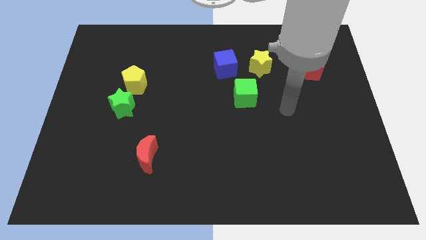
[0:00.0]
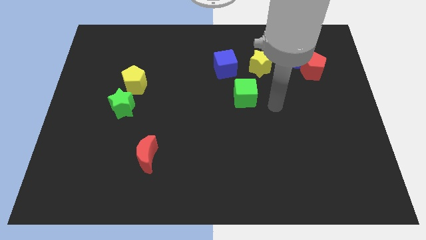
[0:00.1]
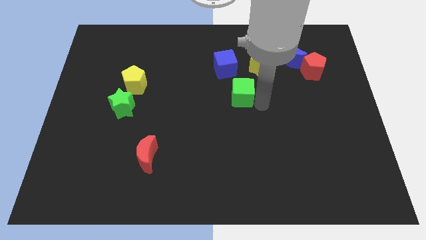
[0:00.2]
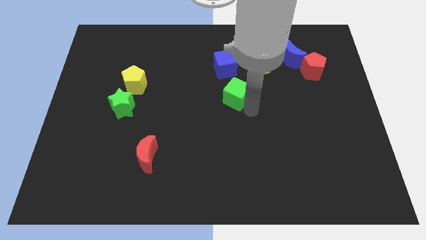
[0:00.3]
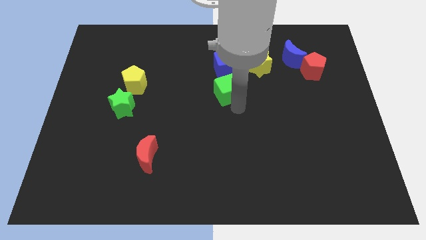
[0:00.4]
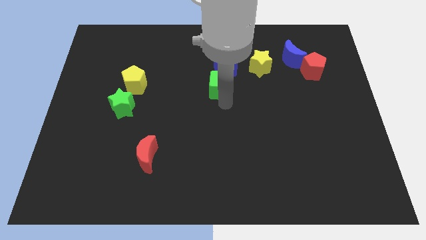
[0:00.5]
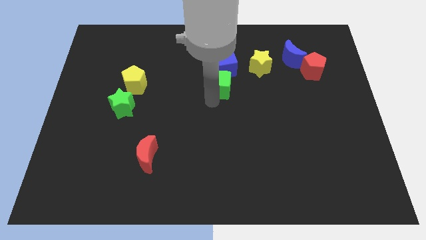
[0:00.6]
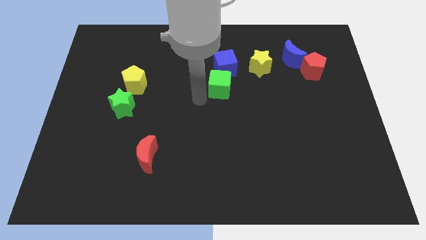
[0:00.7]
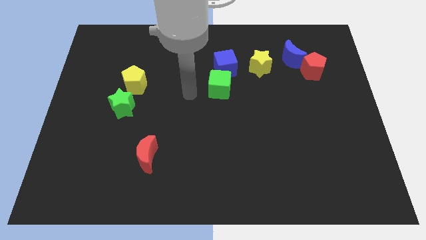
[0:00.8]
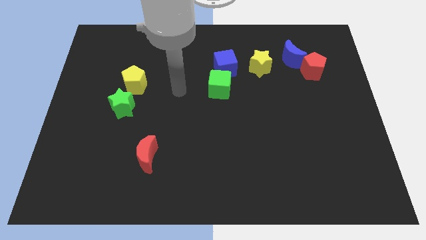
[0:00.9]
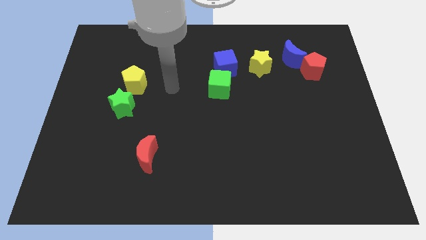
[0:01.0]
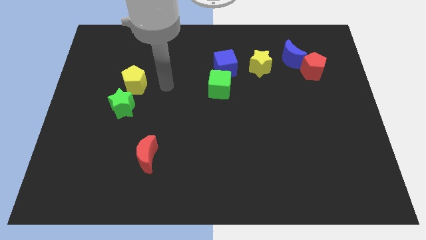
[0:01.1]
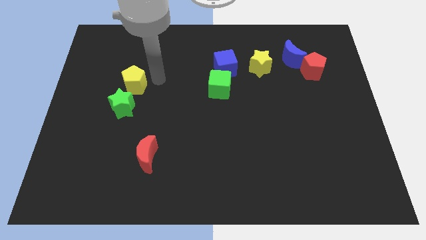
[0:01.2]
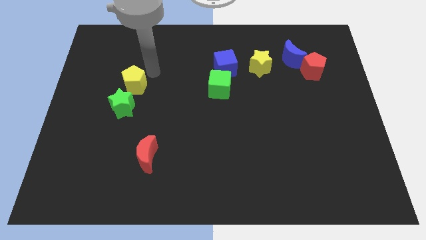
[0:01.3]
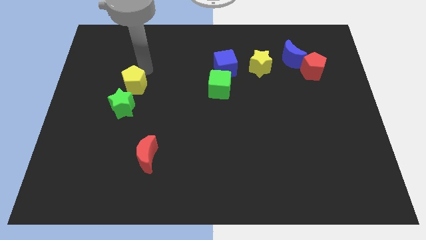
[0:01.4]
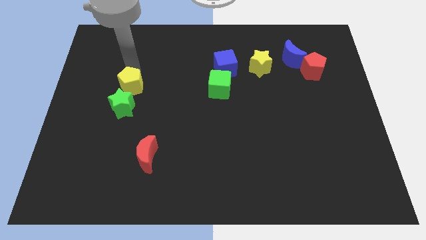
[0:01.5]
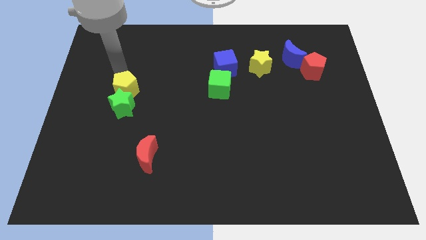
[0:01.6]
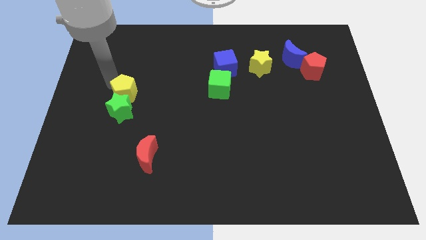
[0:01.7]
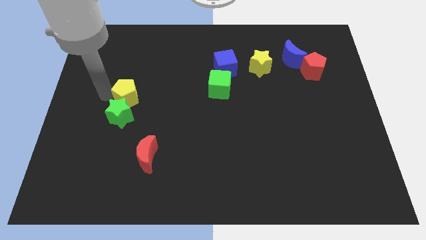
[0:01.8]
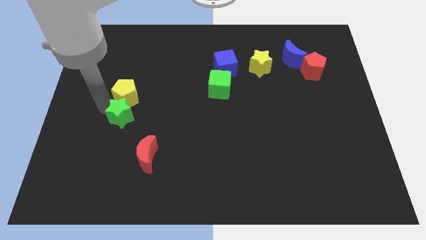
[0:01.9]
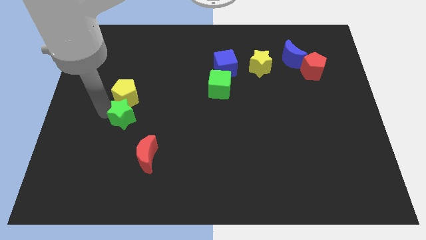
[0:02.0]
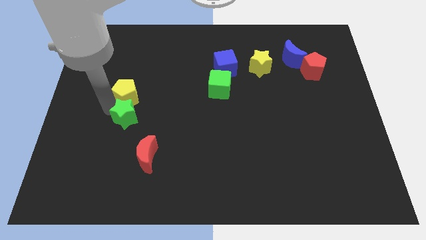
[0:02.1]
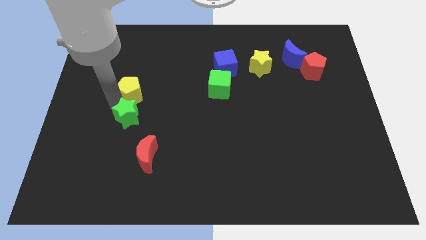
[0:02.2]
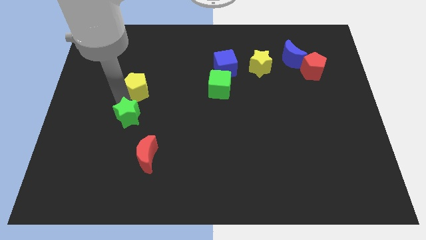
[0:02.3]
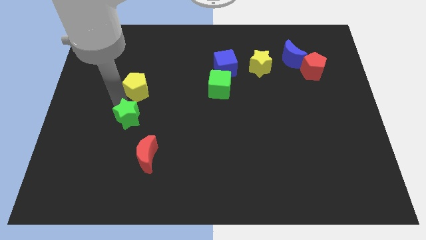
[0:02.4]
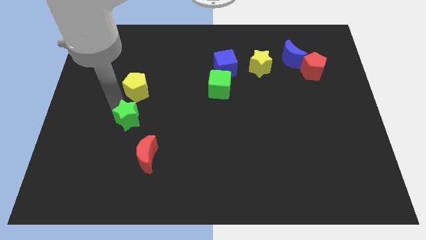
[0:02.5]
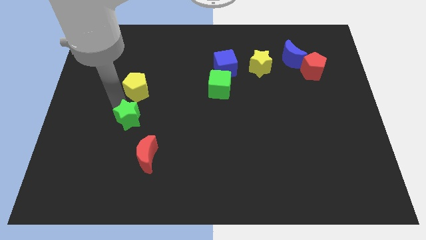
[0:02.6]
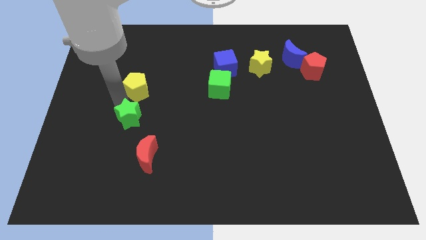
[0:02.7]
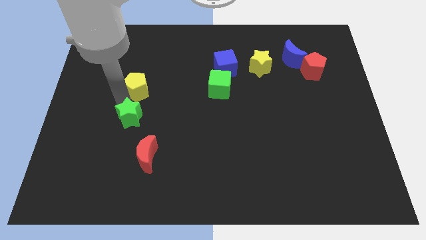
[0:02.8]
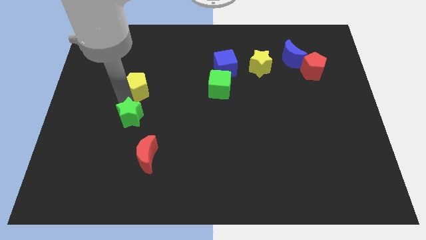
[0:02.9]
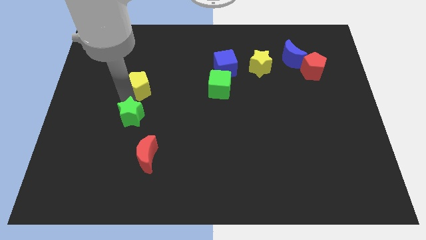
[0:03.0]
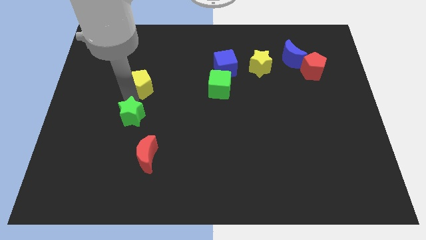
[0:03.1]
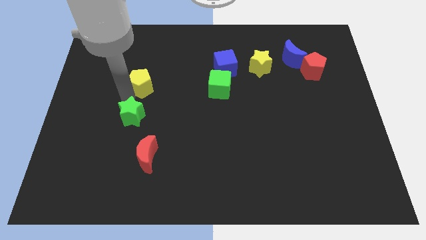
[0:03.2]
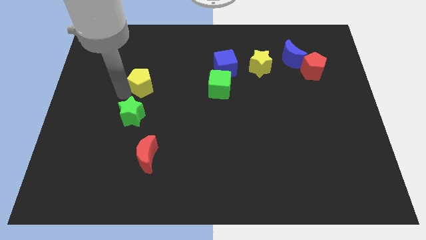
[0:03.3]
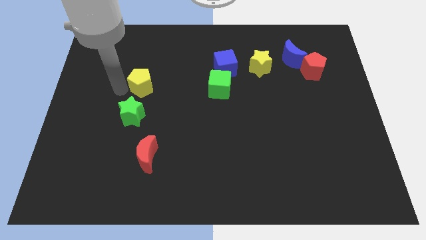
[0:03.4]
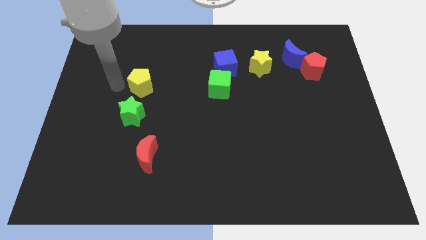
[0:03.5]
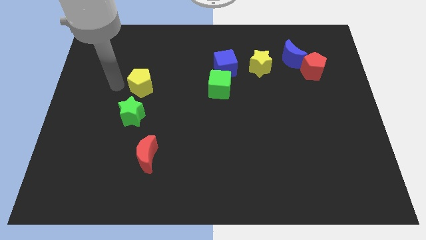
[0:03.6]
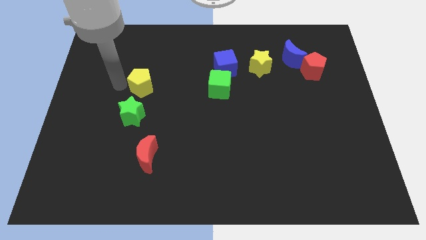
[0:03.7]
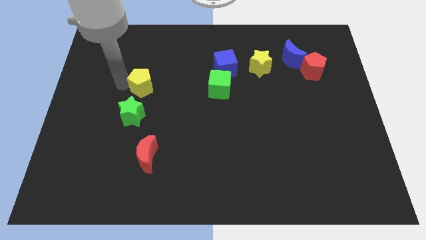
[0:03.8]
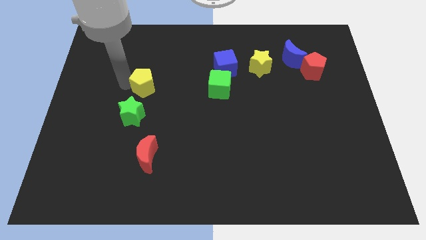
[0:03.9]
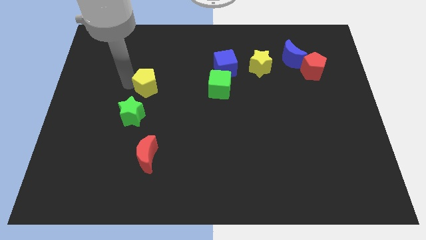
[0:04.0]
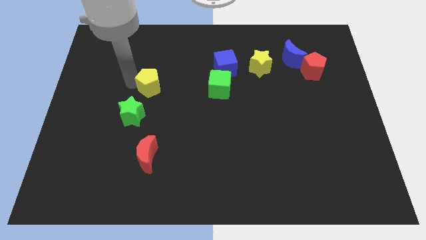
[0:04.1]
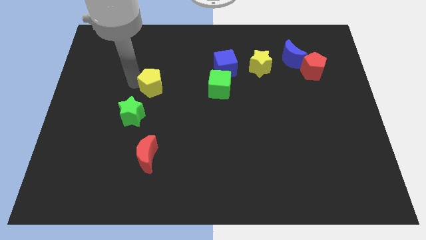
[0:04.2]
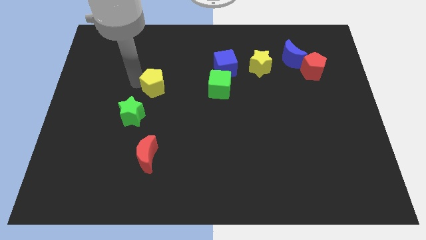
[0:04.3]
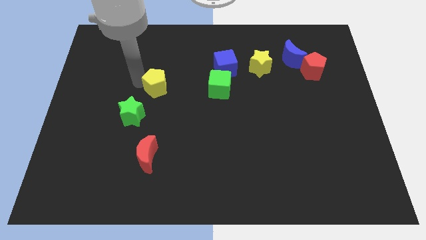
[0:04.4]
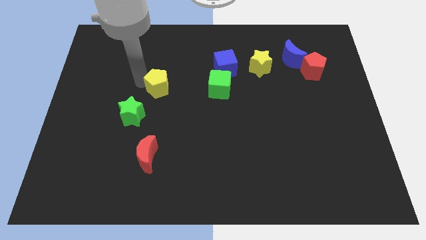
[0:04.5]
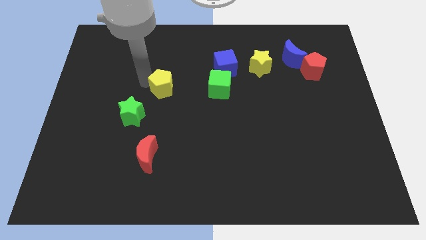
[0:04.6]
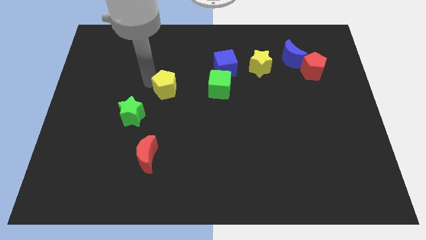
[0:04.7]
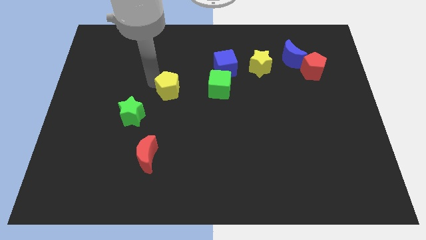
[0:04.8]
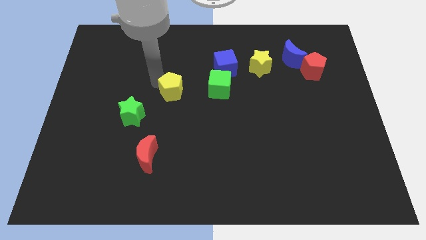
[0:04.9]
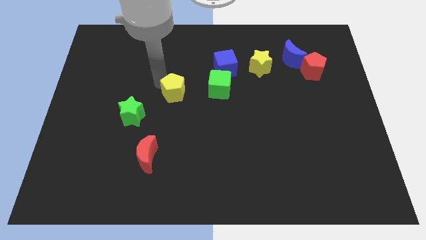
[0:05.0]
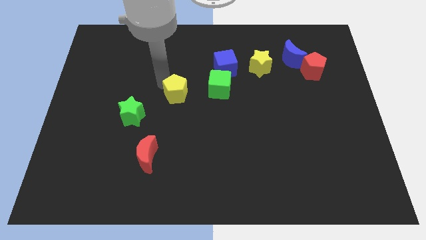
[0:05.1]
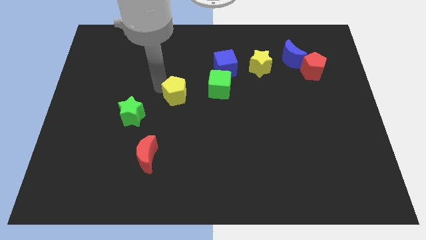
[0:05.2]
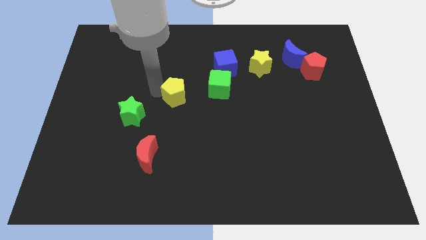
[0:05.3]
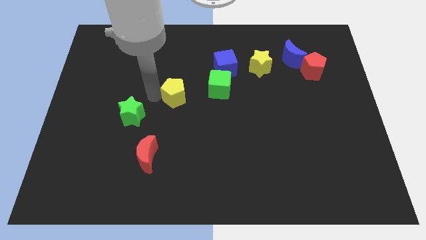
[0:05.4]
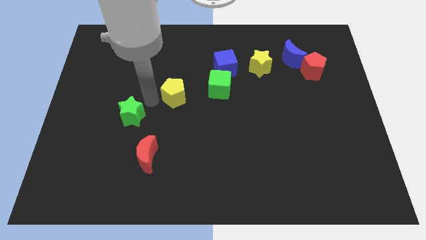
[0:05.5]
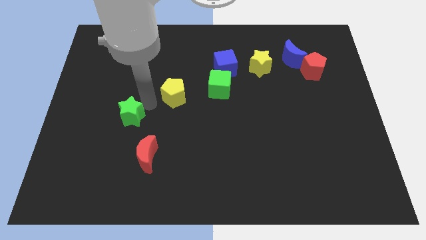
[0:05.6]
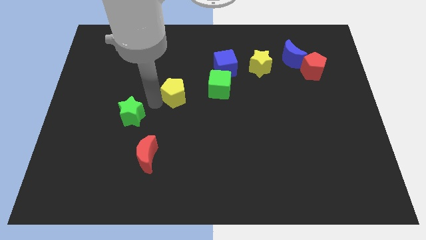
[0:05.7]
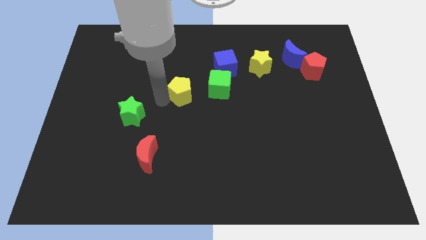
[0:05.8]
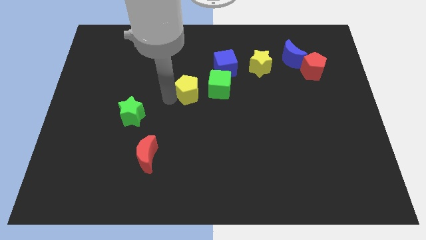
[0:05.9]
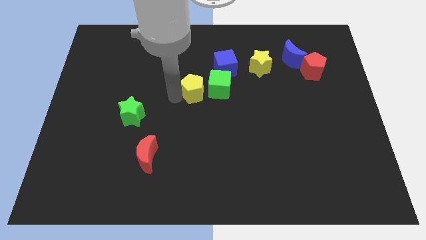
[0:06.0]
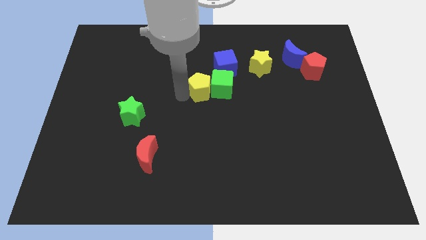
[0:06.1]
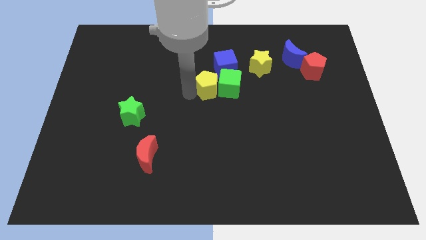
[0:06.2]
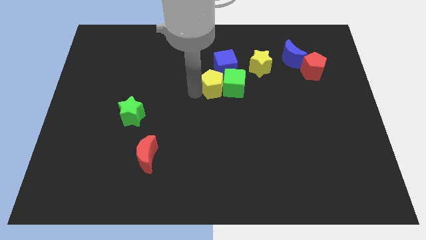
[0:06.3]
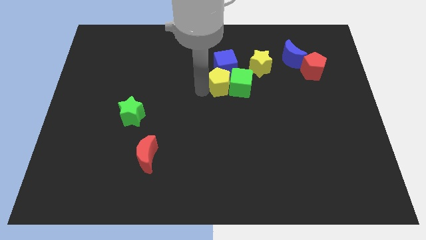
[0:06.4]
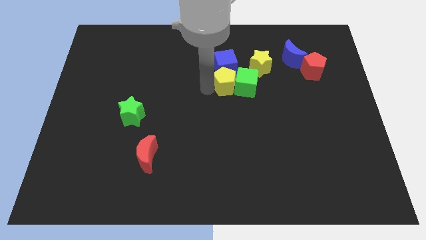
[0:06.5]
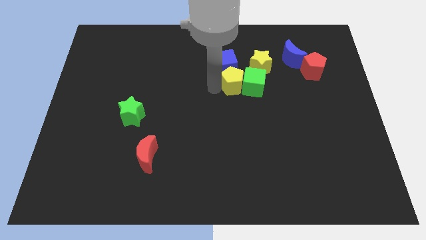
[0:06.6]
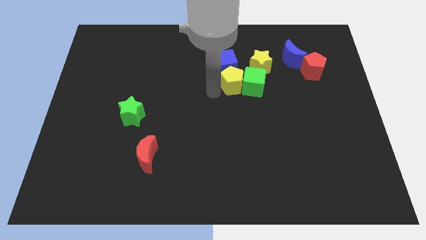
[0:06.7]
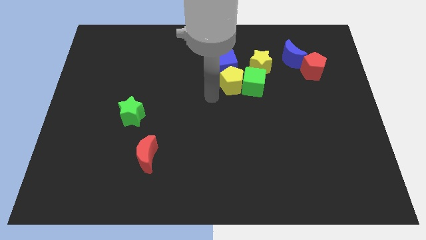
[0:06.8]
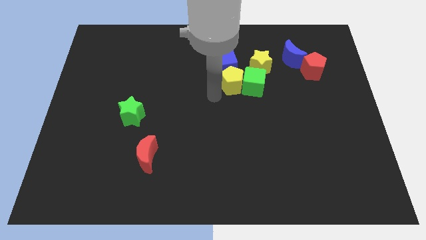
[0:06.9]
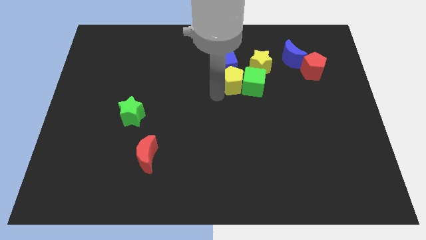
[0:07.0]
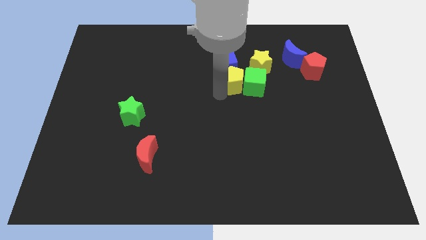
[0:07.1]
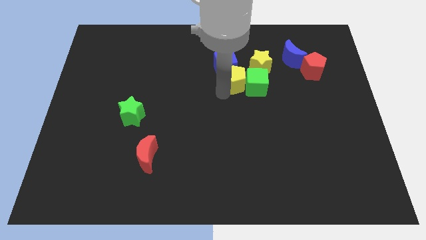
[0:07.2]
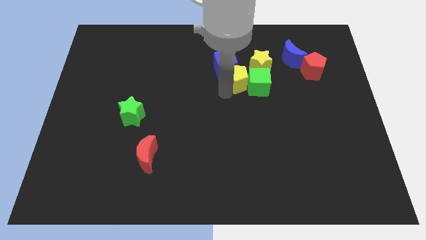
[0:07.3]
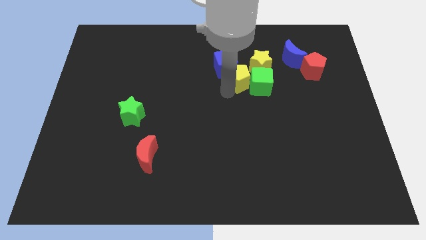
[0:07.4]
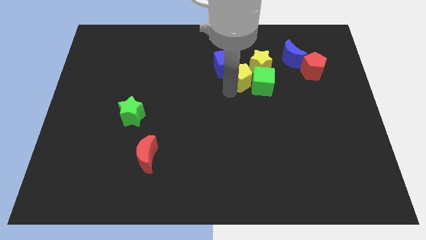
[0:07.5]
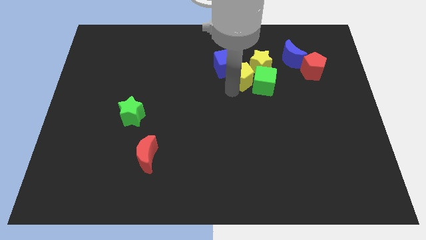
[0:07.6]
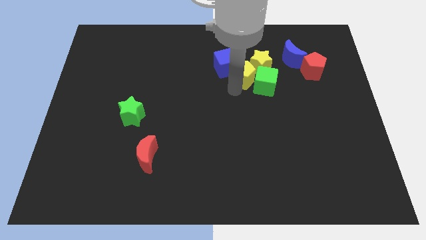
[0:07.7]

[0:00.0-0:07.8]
slide the yellow pentagon to the yellow star

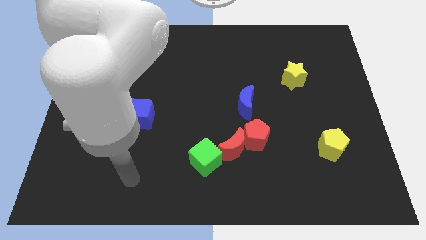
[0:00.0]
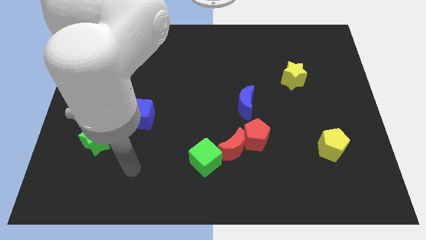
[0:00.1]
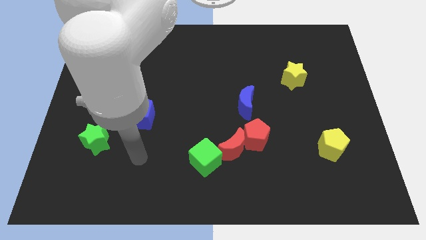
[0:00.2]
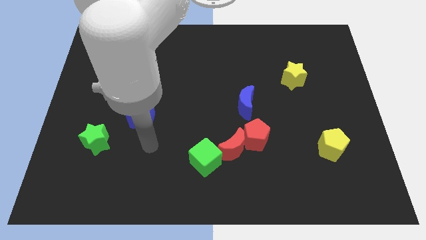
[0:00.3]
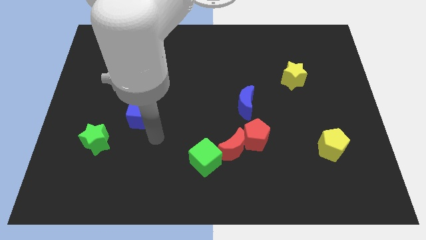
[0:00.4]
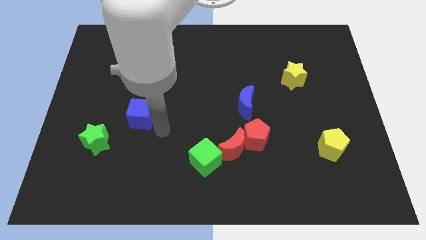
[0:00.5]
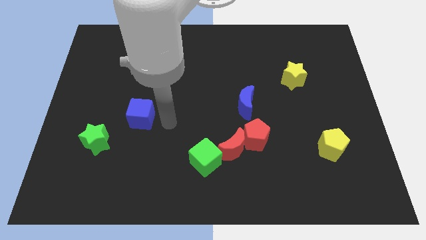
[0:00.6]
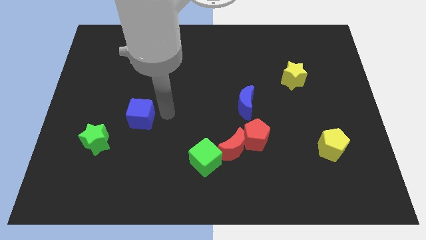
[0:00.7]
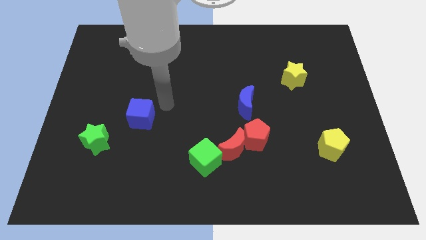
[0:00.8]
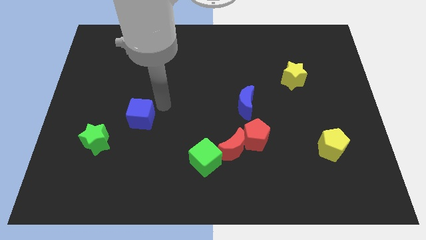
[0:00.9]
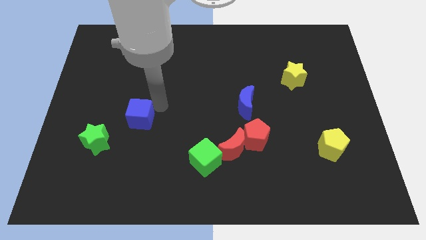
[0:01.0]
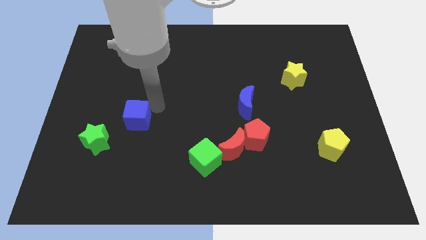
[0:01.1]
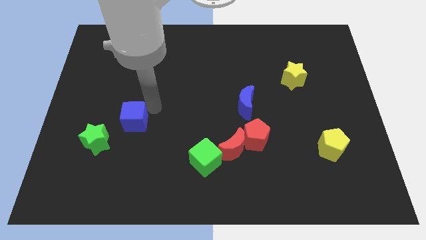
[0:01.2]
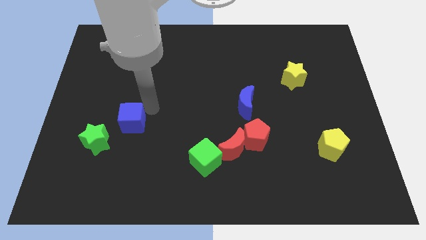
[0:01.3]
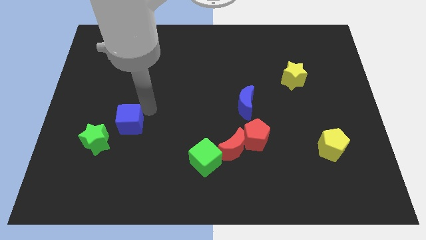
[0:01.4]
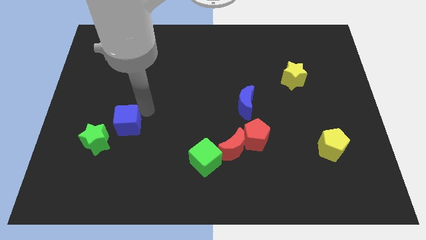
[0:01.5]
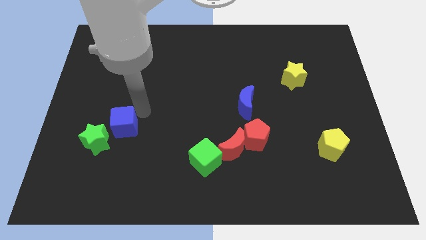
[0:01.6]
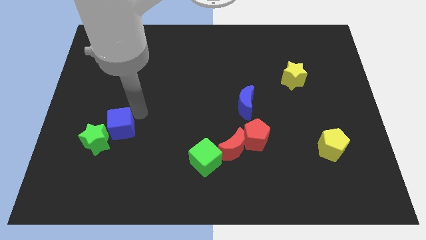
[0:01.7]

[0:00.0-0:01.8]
put the blue cube next to the green star
